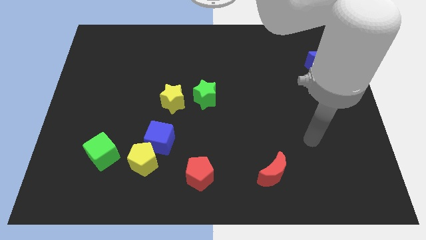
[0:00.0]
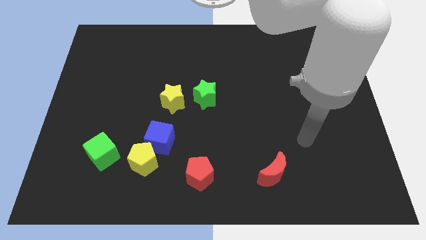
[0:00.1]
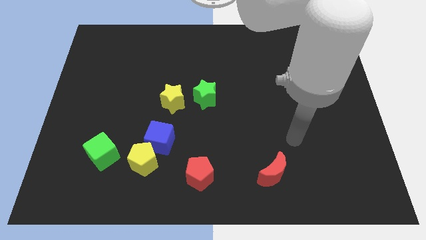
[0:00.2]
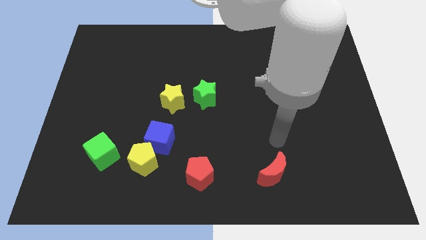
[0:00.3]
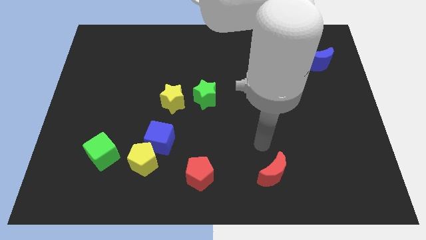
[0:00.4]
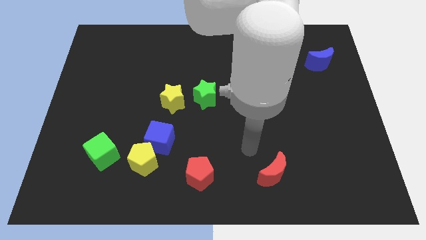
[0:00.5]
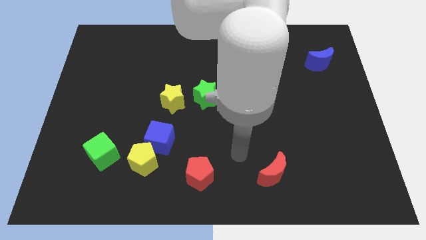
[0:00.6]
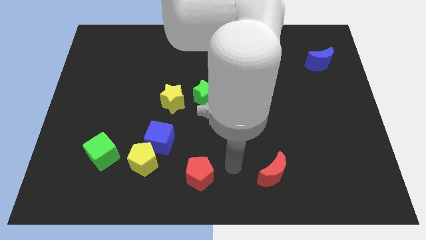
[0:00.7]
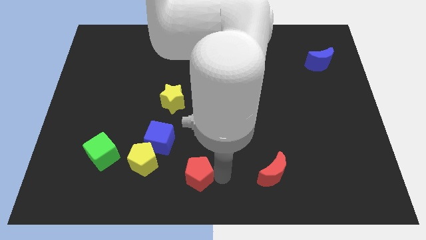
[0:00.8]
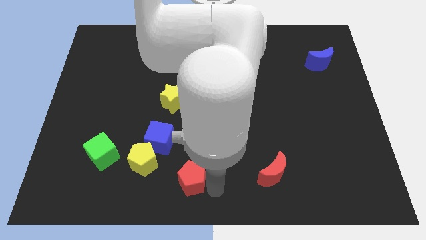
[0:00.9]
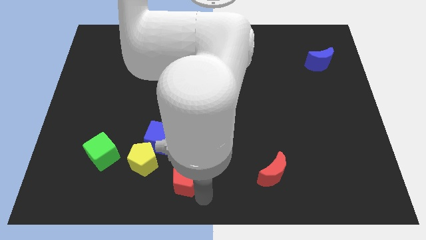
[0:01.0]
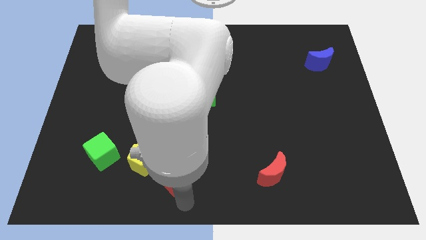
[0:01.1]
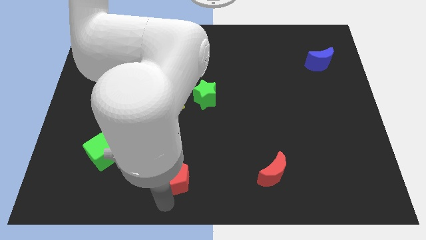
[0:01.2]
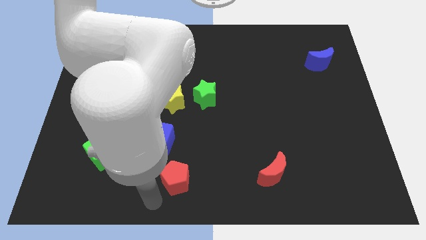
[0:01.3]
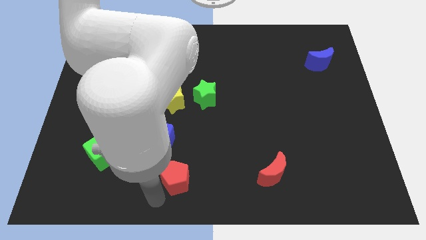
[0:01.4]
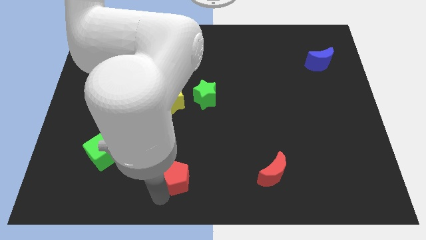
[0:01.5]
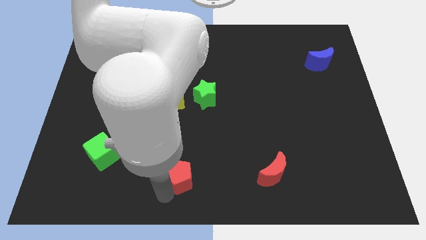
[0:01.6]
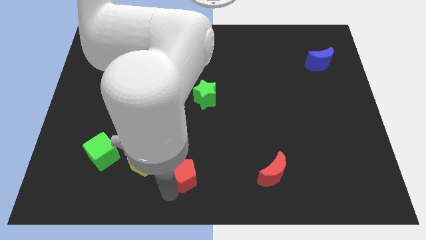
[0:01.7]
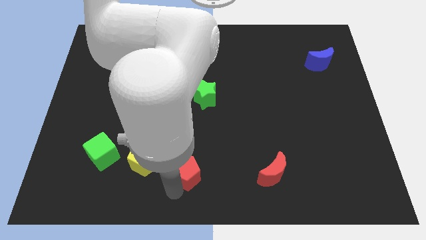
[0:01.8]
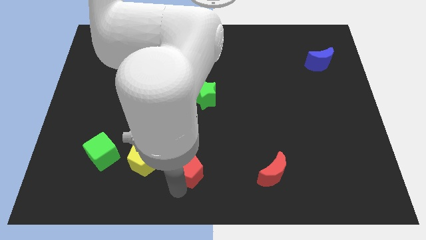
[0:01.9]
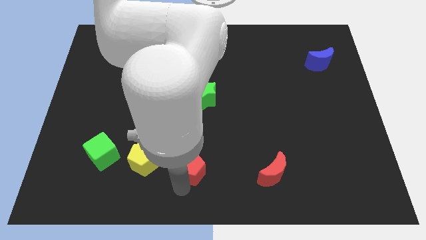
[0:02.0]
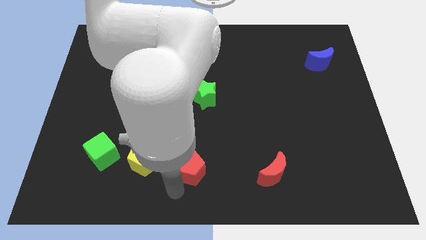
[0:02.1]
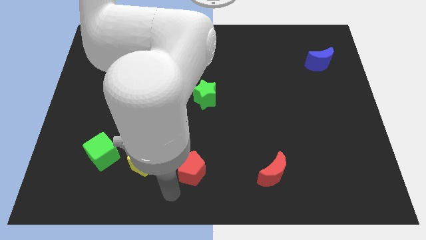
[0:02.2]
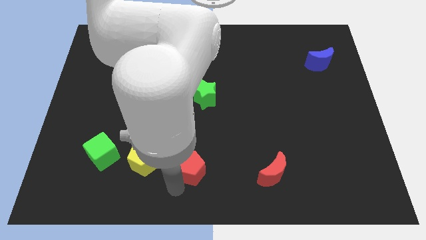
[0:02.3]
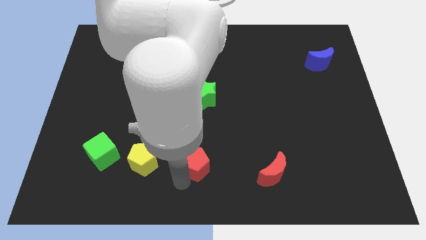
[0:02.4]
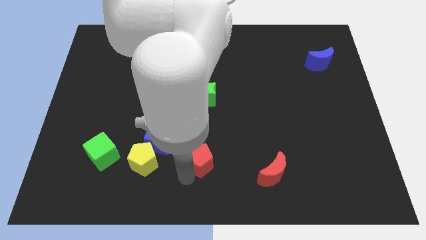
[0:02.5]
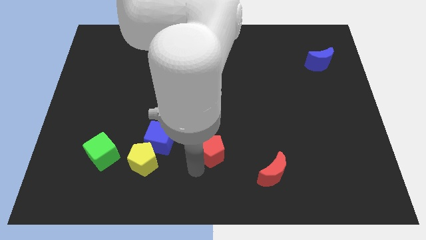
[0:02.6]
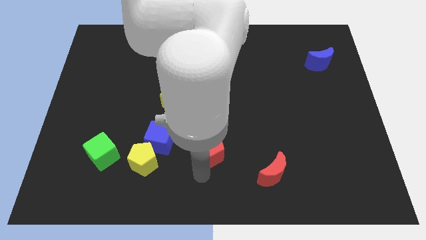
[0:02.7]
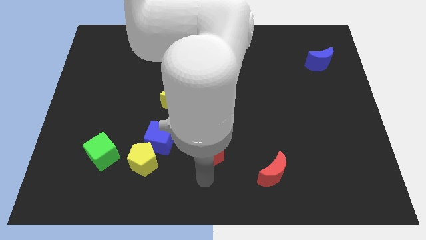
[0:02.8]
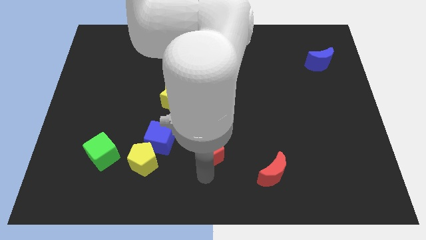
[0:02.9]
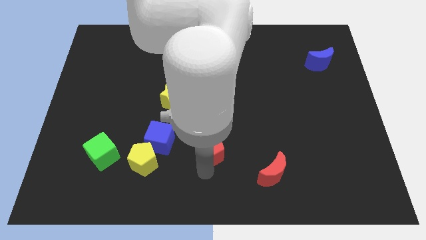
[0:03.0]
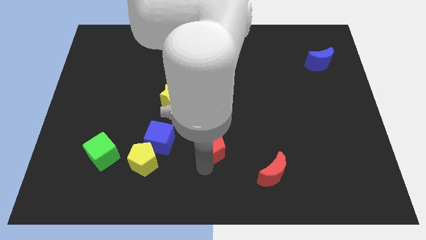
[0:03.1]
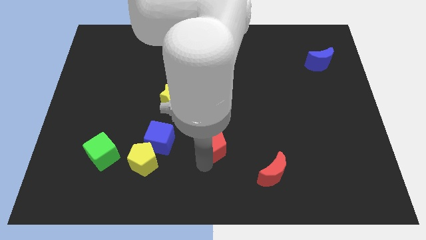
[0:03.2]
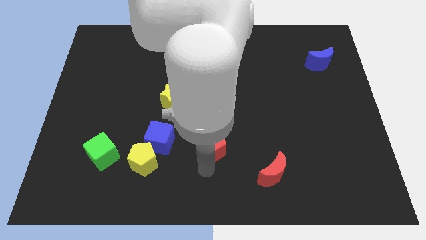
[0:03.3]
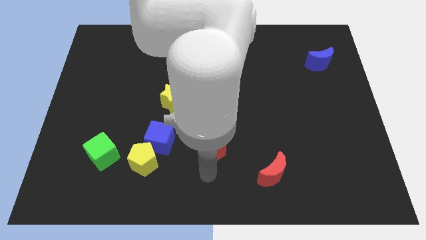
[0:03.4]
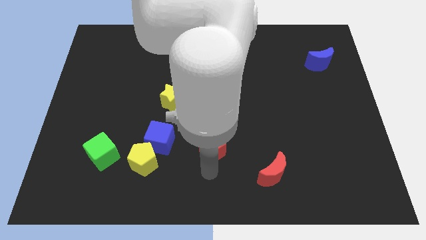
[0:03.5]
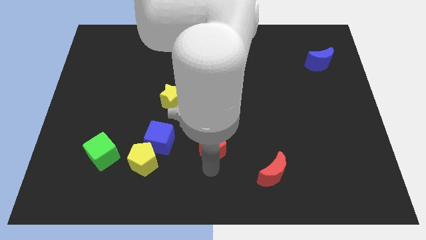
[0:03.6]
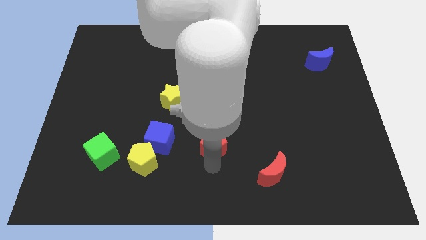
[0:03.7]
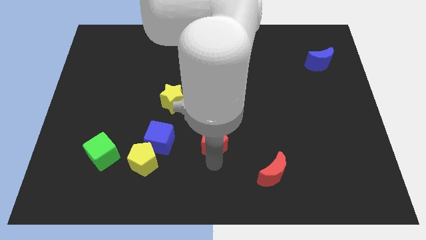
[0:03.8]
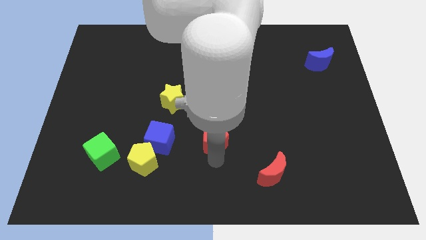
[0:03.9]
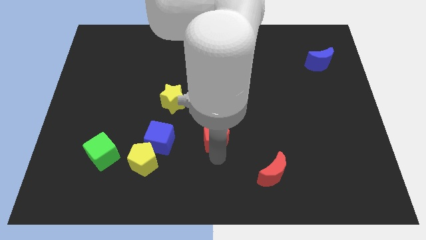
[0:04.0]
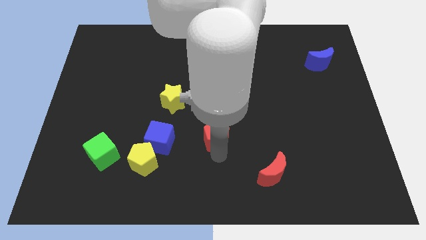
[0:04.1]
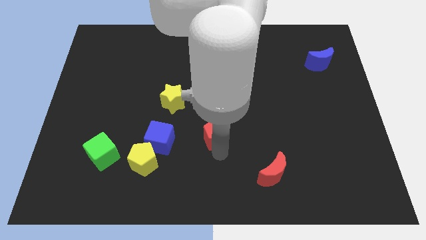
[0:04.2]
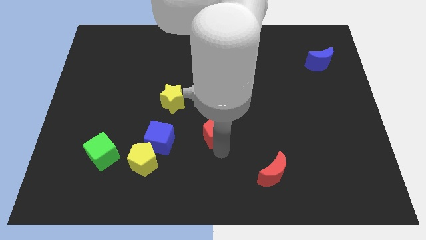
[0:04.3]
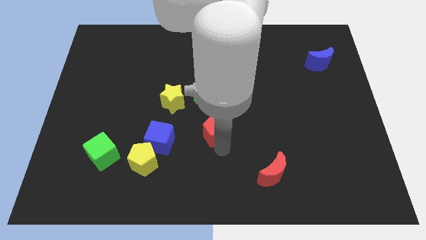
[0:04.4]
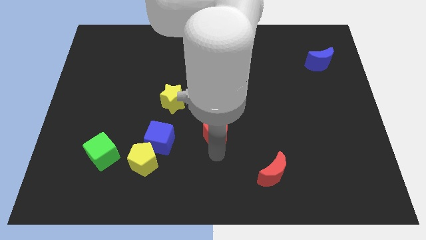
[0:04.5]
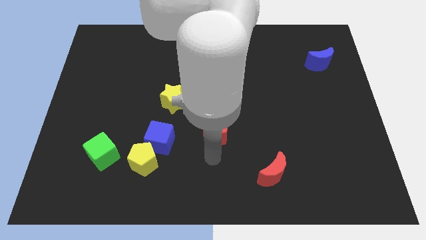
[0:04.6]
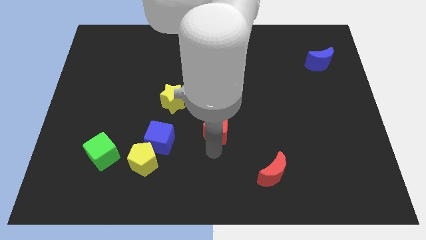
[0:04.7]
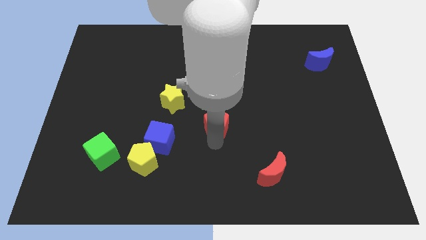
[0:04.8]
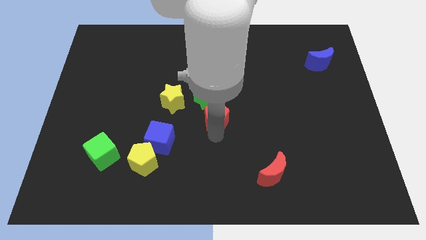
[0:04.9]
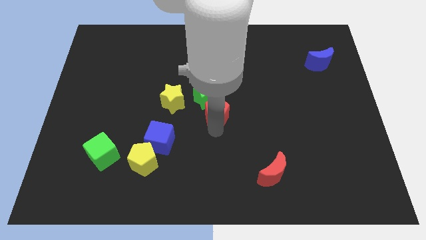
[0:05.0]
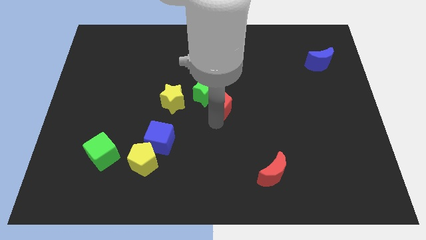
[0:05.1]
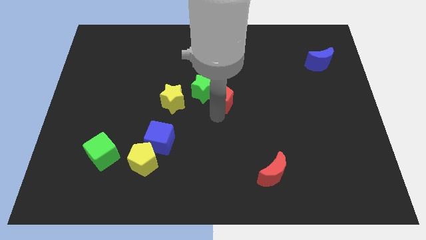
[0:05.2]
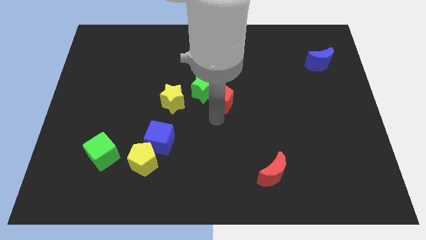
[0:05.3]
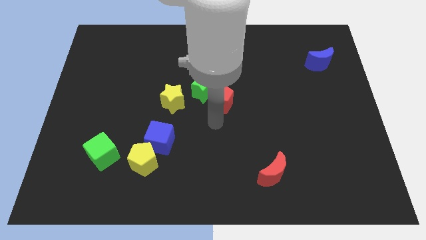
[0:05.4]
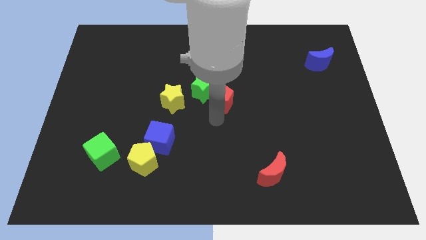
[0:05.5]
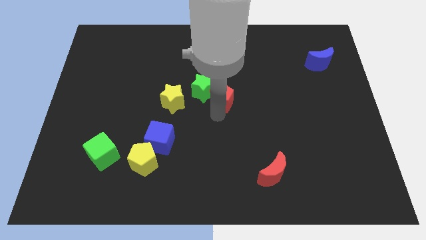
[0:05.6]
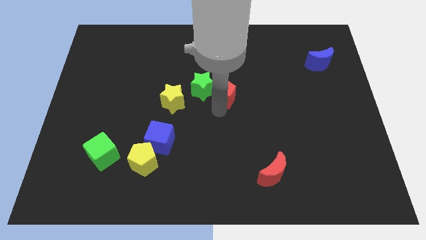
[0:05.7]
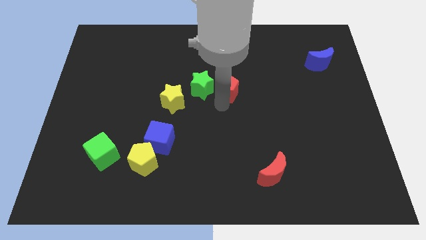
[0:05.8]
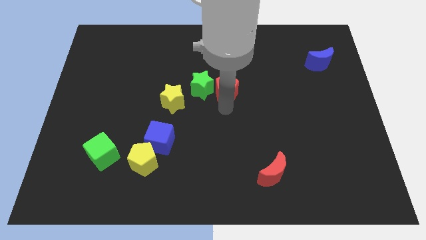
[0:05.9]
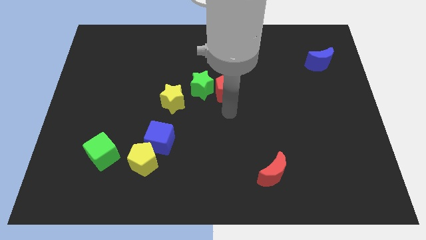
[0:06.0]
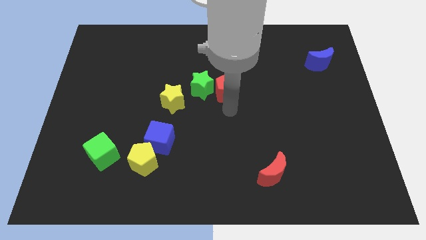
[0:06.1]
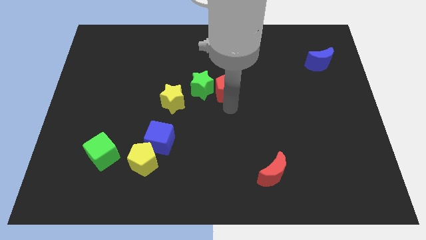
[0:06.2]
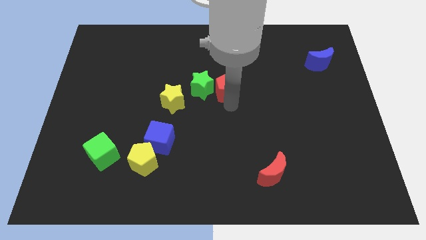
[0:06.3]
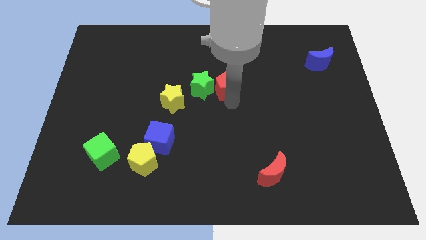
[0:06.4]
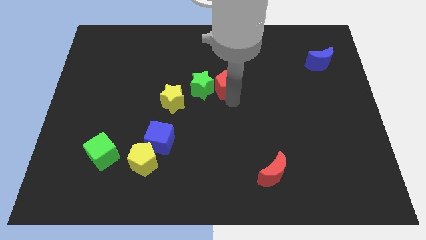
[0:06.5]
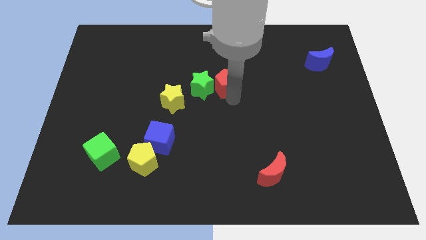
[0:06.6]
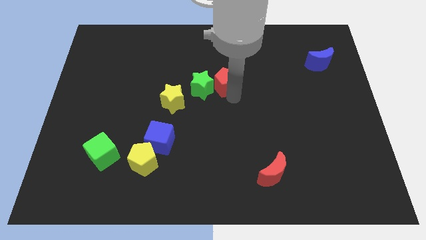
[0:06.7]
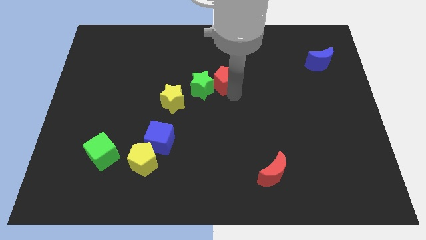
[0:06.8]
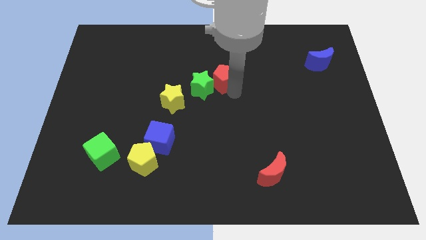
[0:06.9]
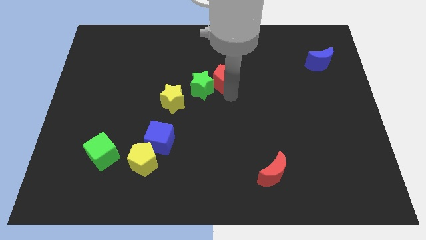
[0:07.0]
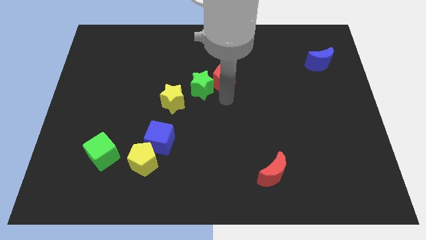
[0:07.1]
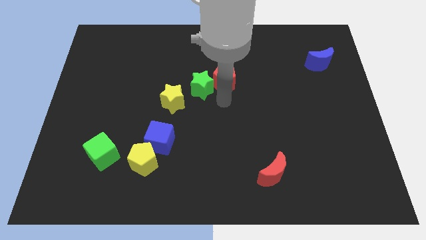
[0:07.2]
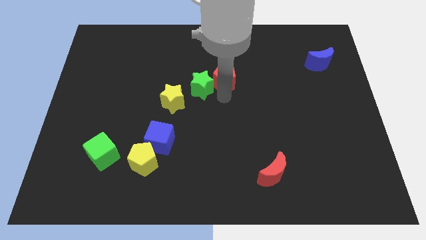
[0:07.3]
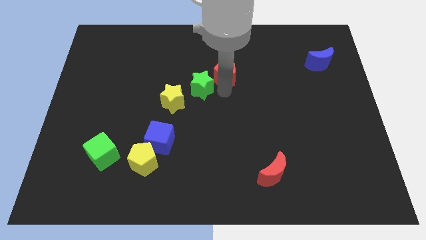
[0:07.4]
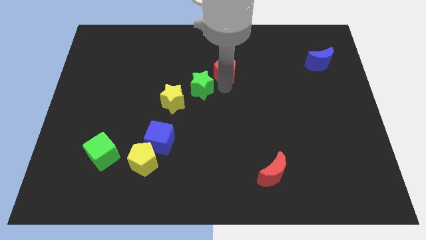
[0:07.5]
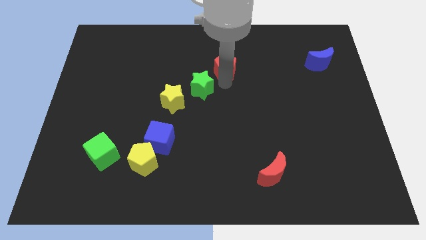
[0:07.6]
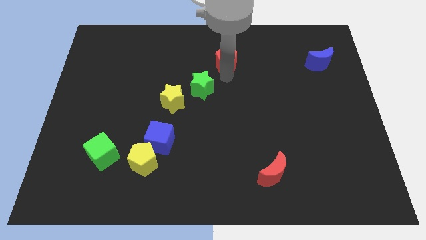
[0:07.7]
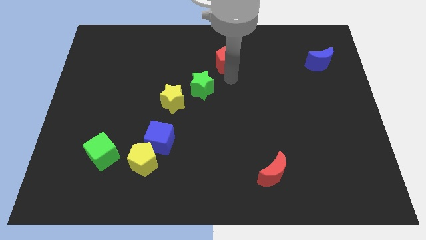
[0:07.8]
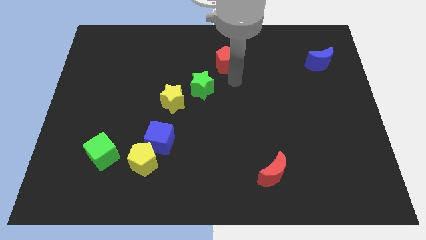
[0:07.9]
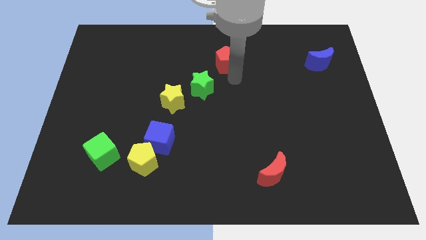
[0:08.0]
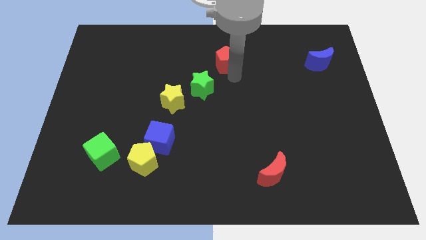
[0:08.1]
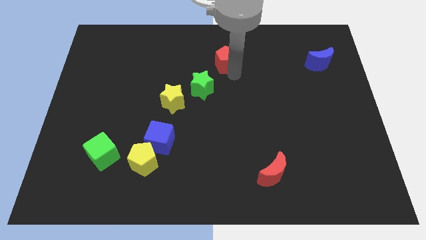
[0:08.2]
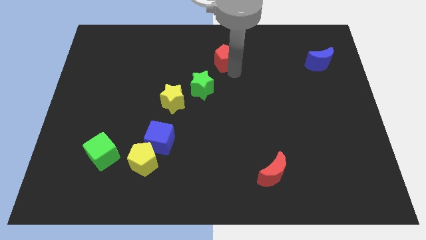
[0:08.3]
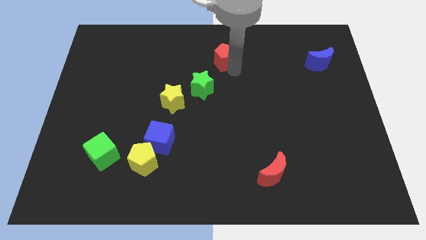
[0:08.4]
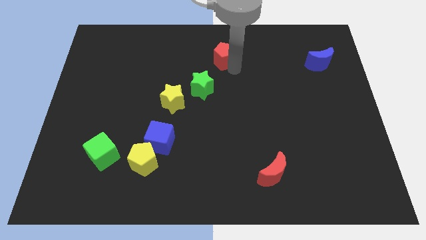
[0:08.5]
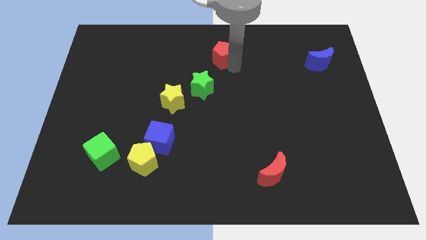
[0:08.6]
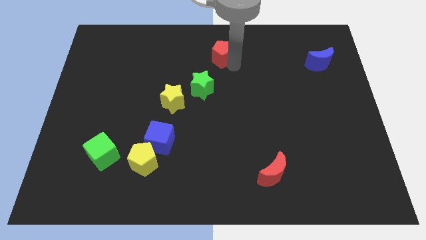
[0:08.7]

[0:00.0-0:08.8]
put the red pentagon to the towards your base
